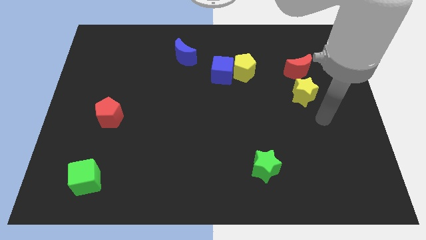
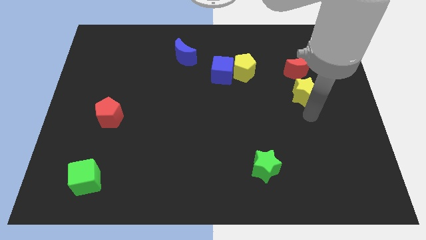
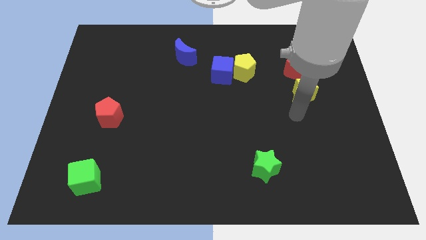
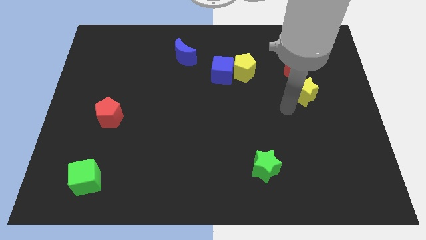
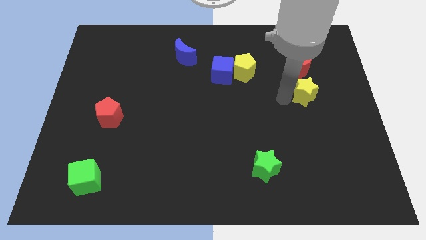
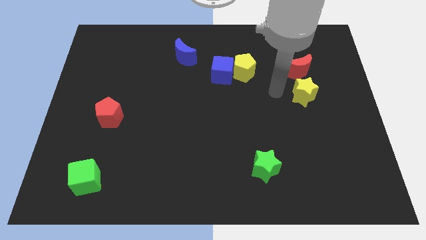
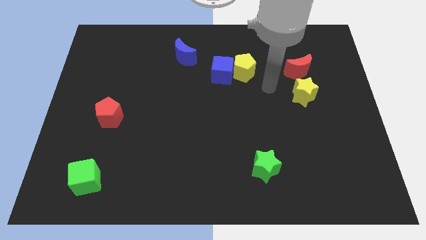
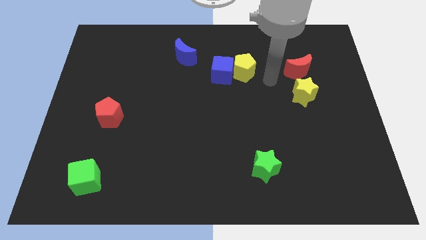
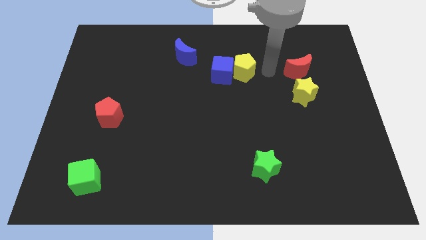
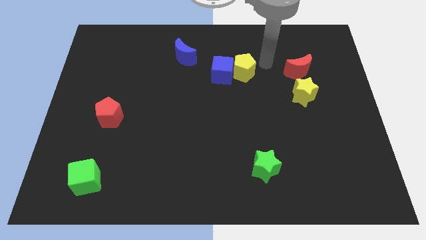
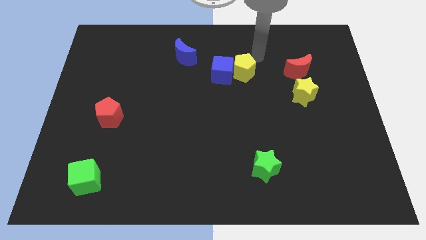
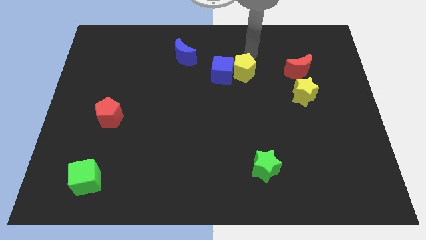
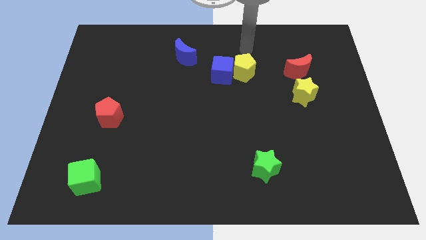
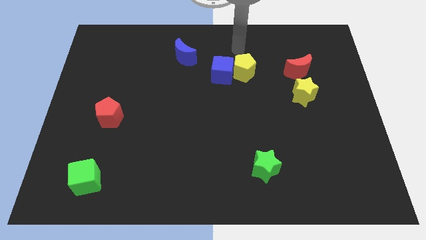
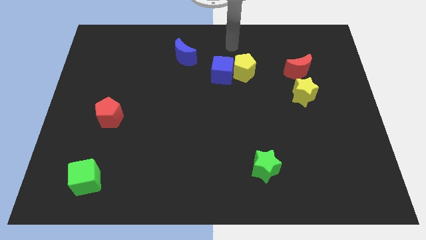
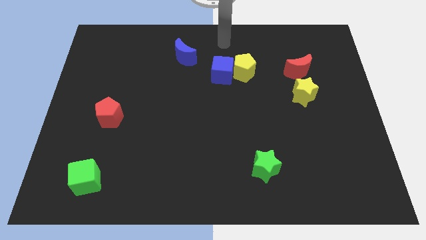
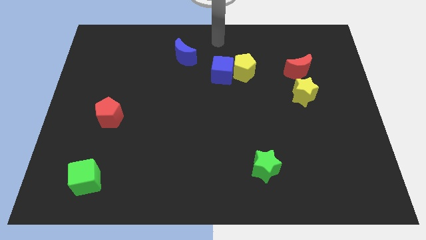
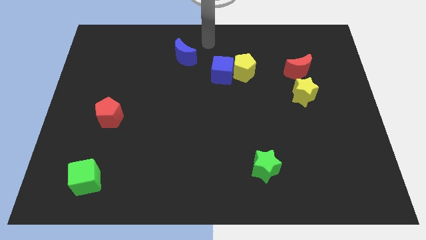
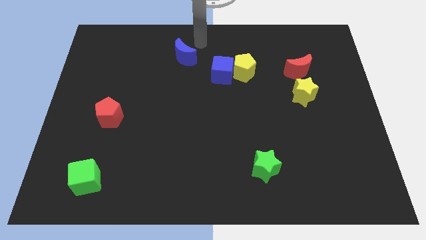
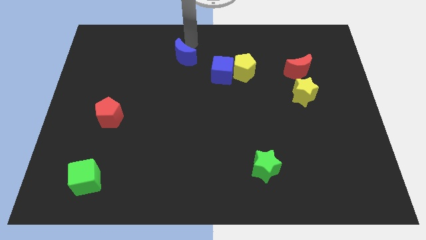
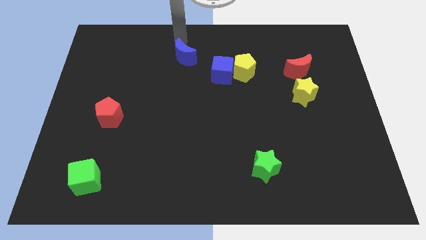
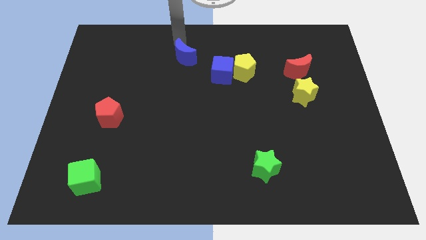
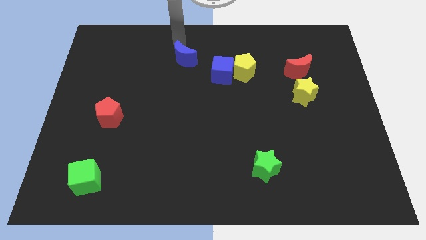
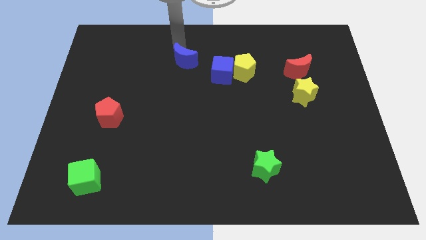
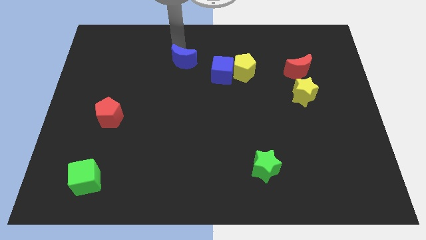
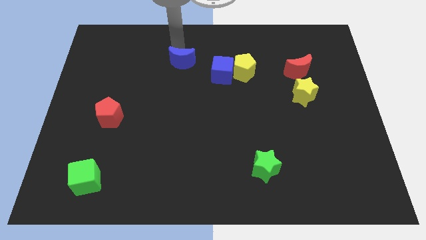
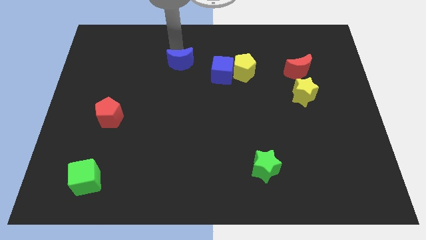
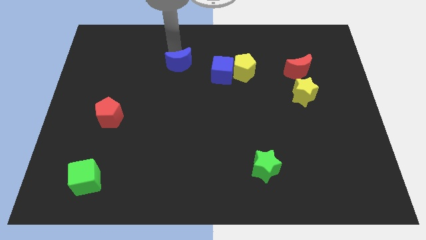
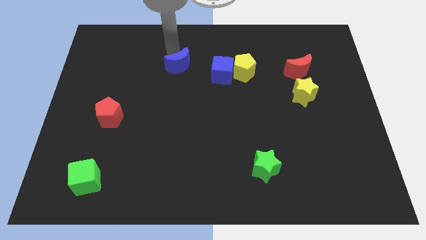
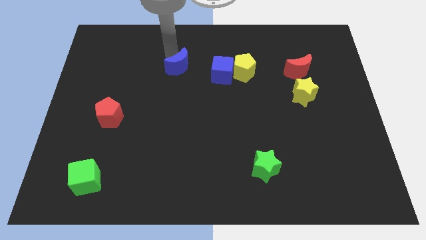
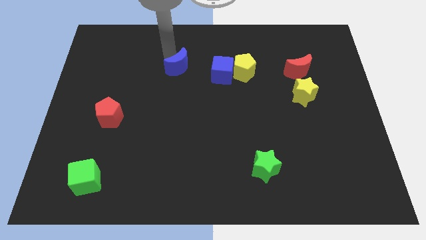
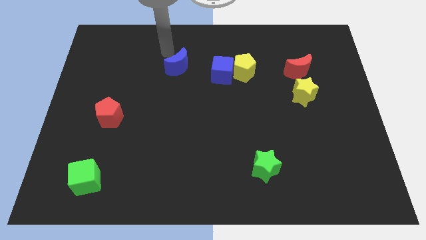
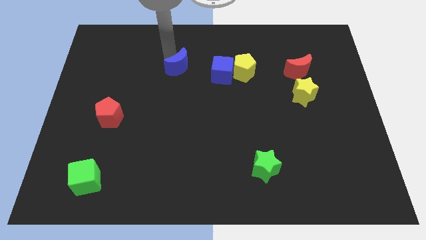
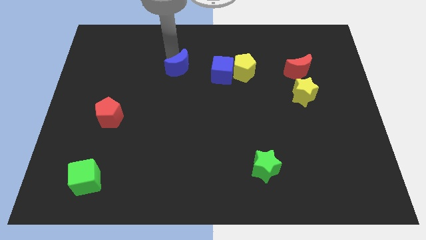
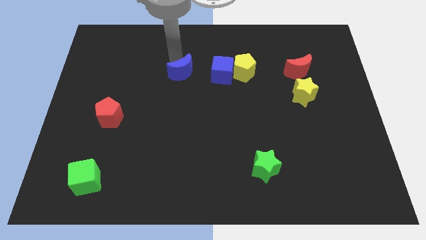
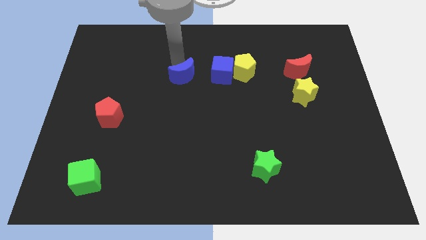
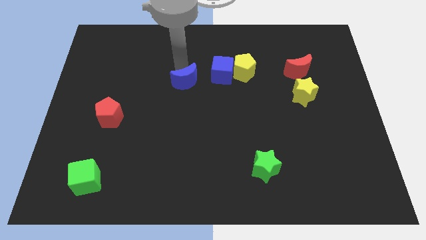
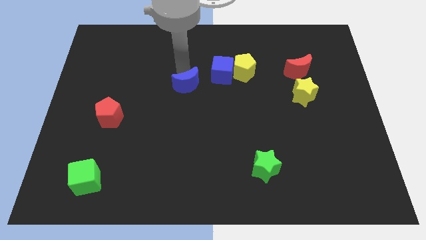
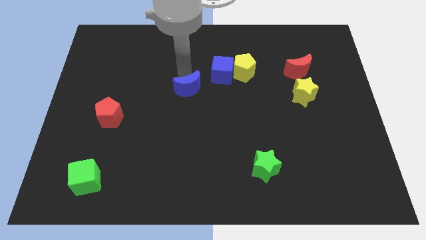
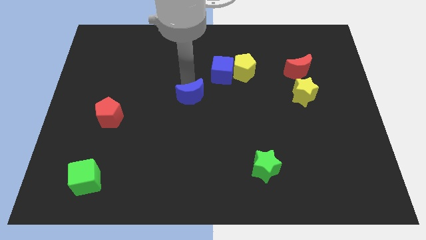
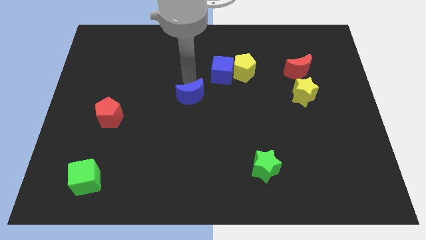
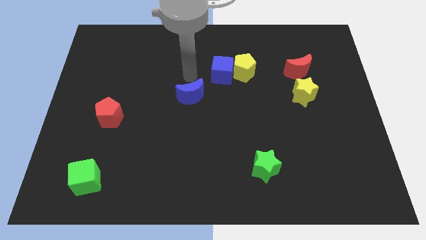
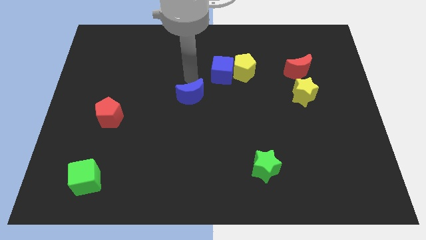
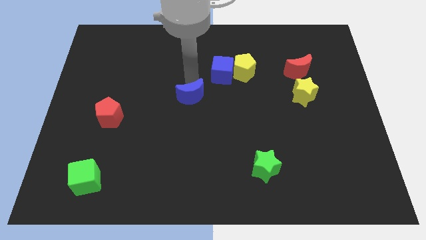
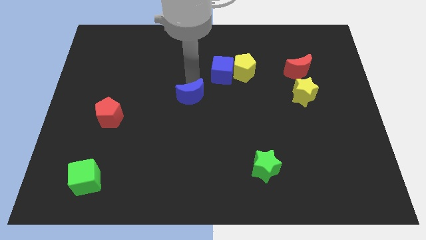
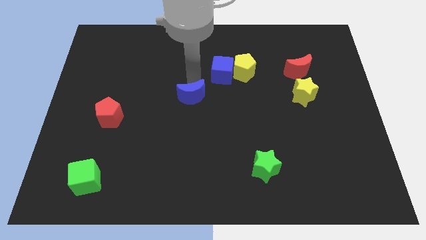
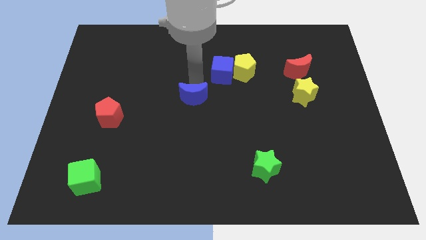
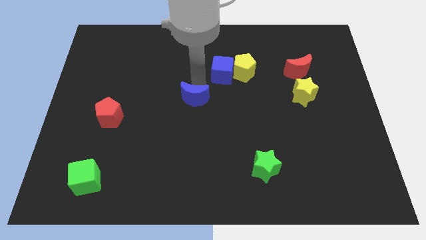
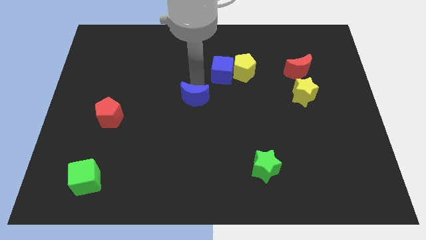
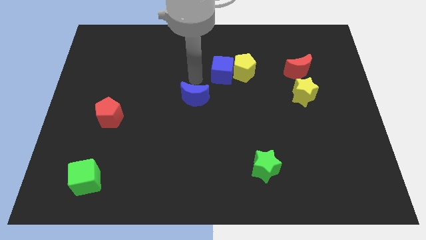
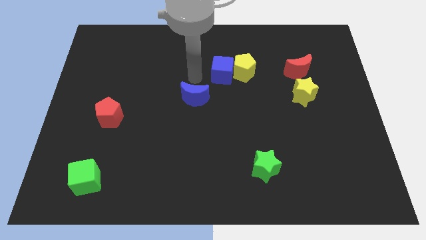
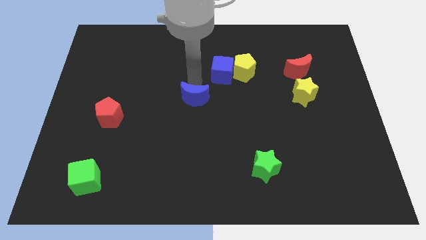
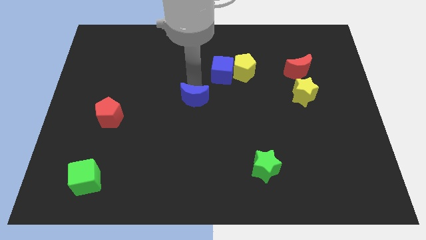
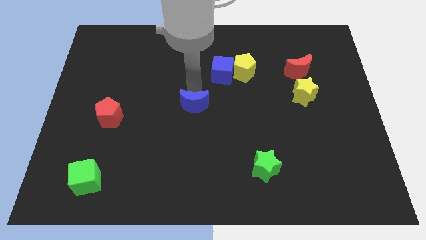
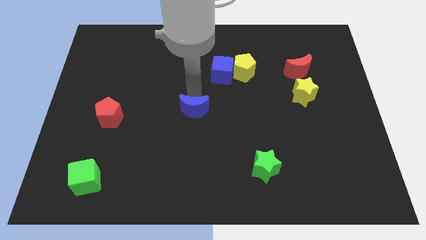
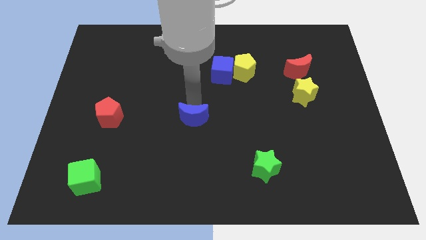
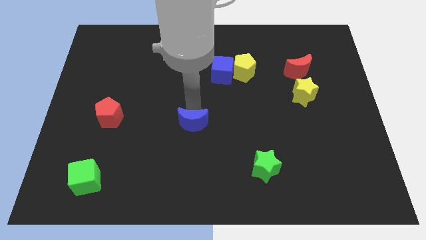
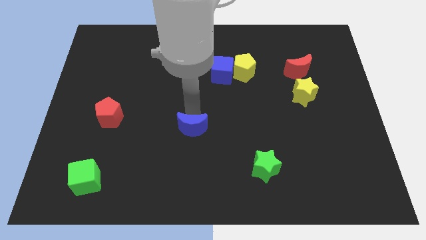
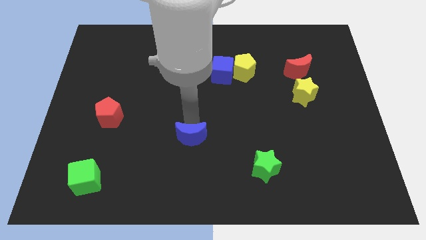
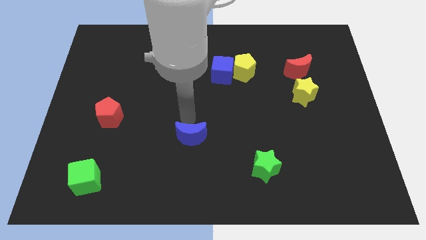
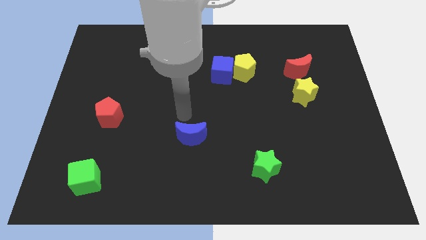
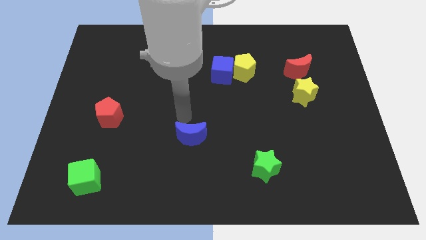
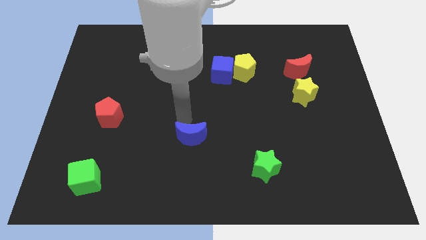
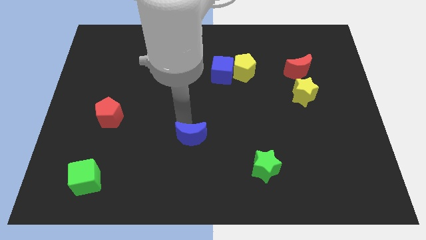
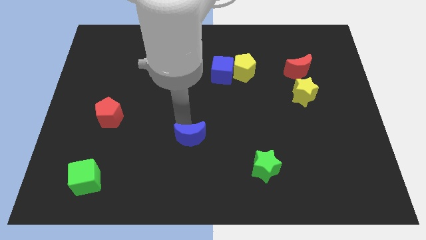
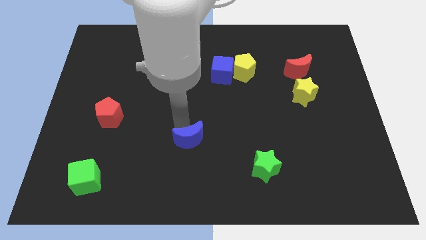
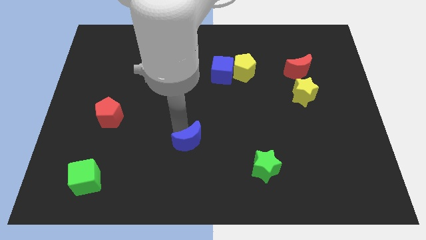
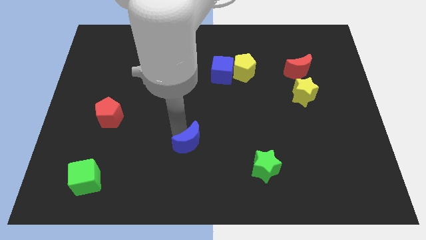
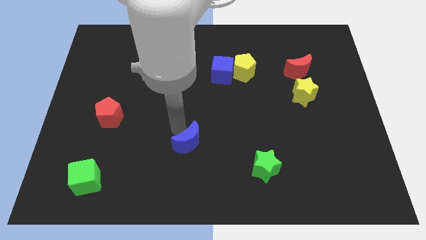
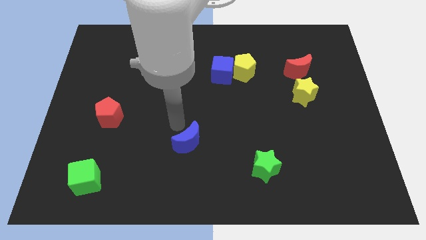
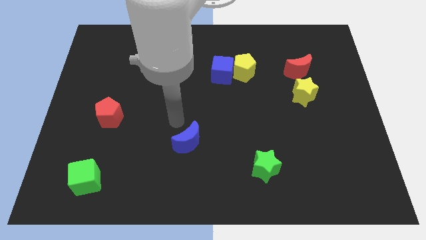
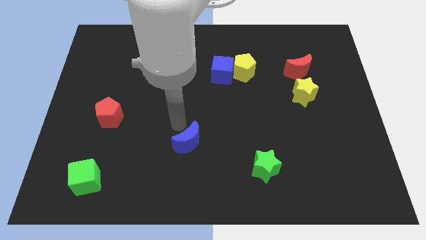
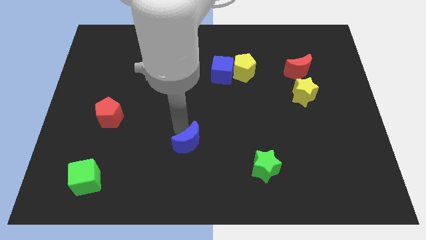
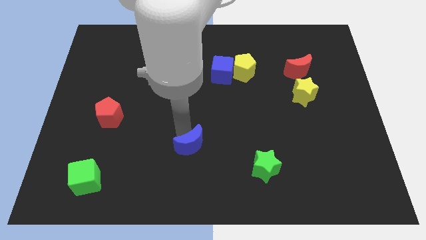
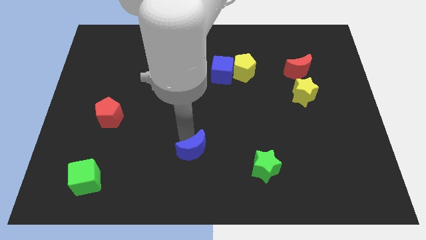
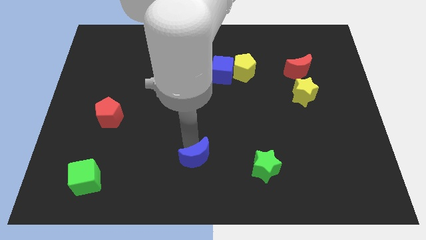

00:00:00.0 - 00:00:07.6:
slide the blue moon to the bottom

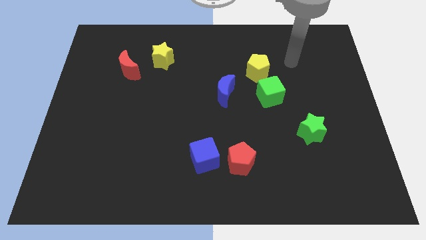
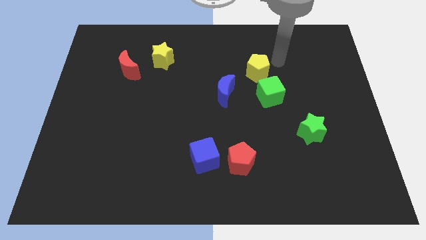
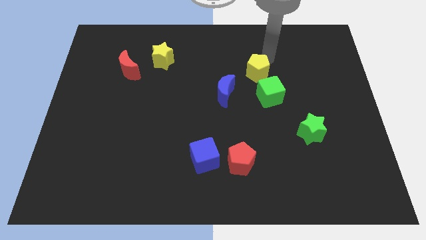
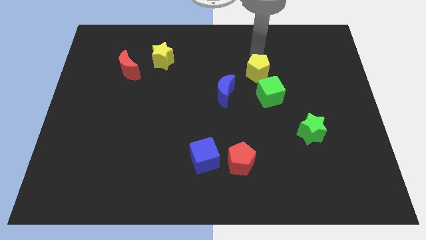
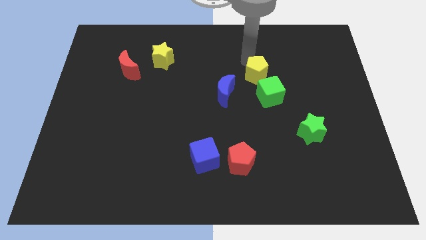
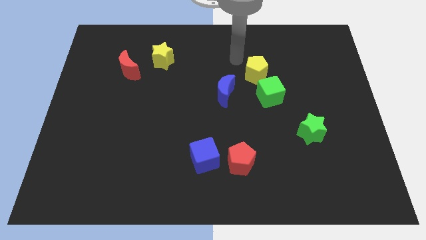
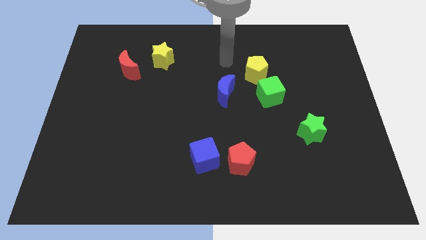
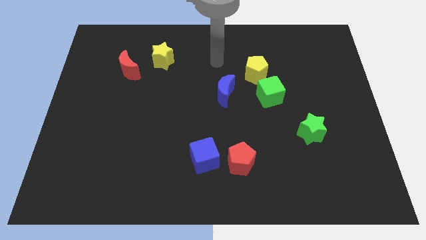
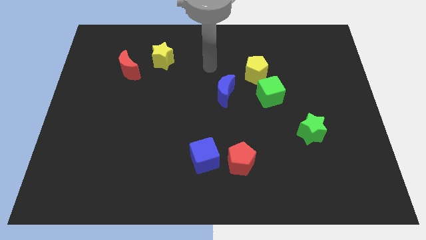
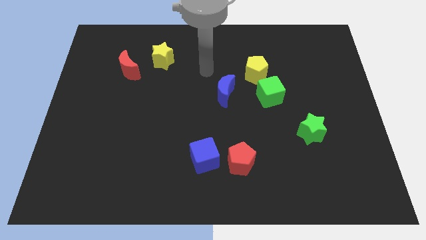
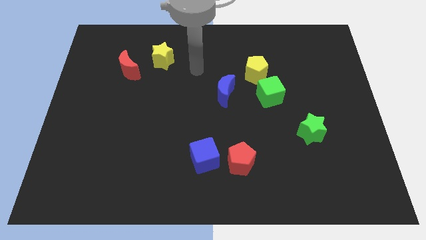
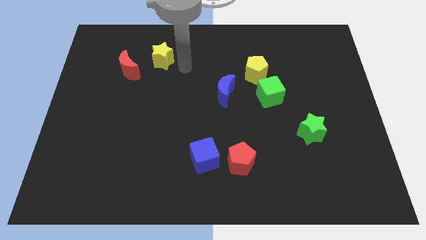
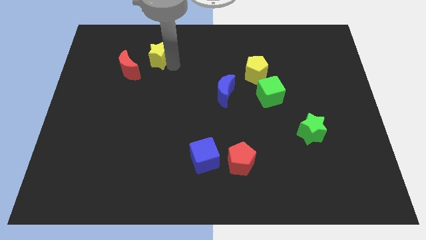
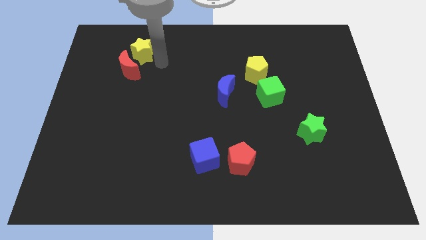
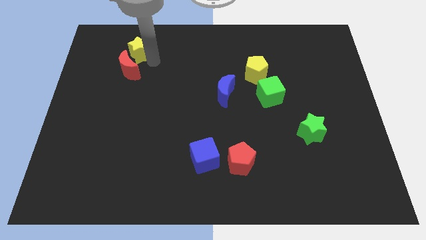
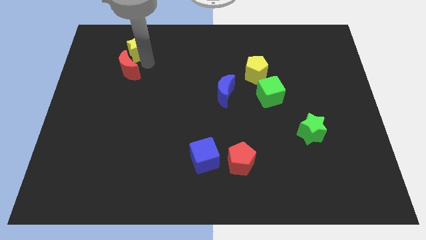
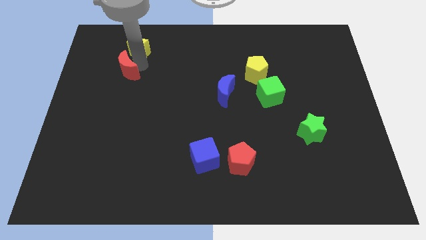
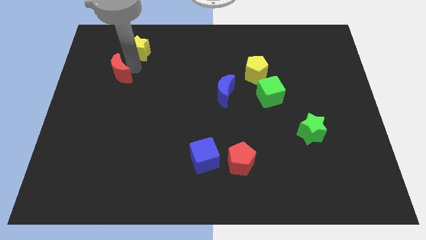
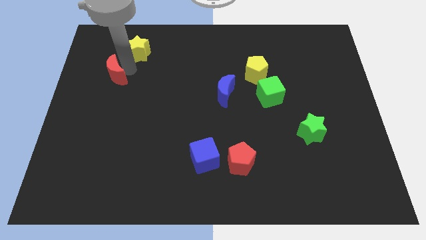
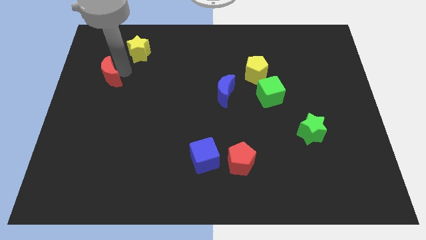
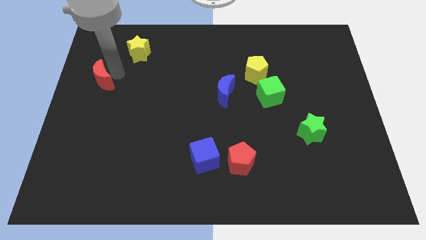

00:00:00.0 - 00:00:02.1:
move the red moon to the left side
